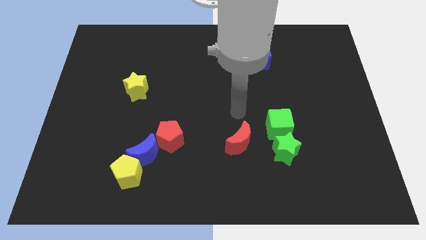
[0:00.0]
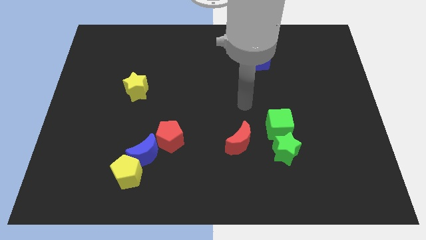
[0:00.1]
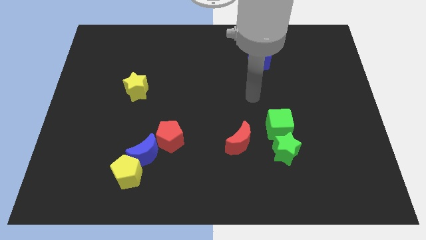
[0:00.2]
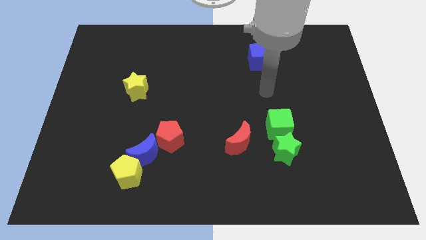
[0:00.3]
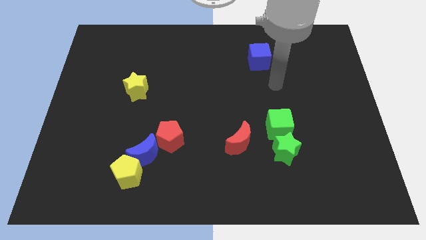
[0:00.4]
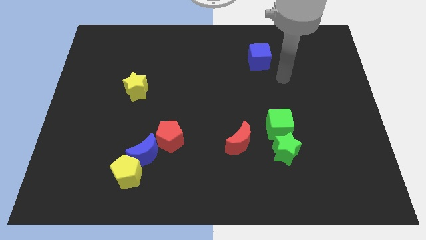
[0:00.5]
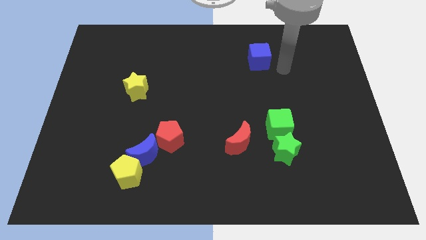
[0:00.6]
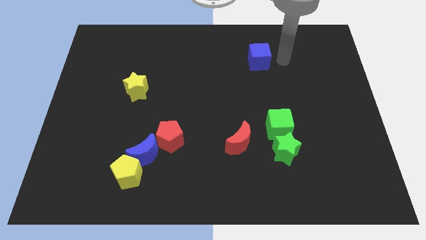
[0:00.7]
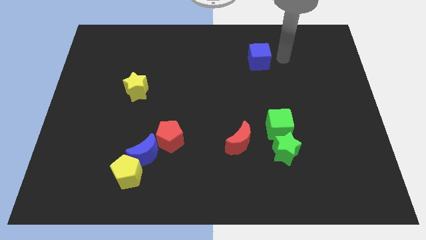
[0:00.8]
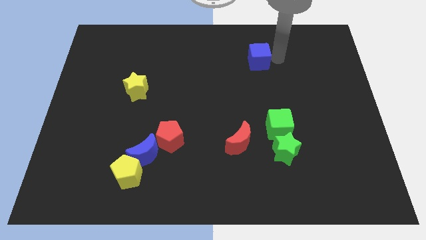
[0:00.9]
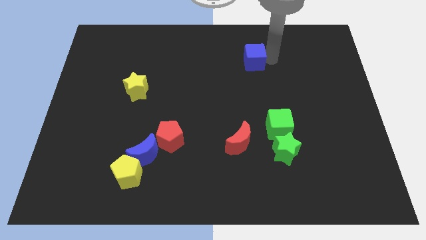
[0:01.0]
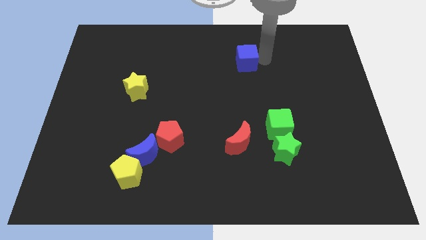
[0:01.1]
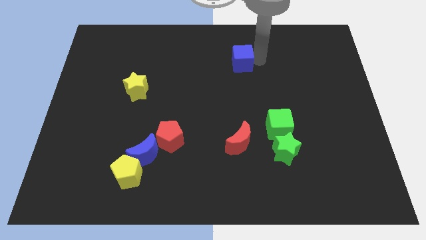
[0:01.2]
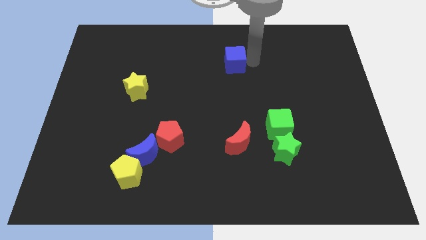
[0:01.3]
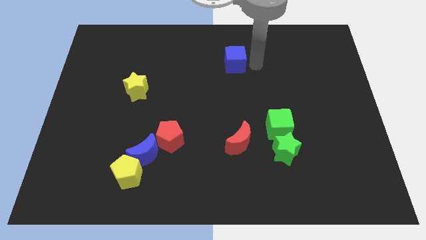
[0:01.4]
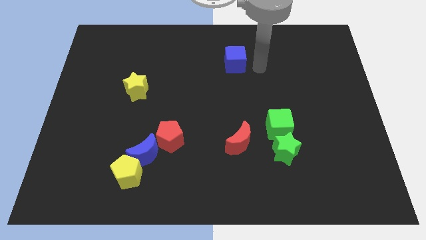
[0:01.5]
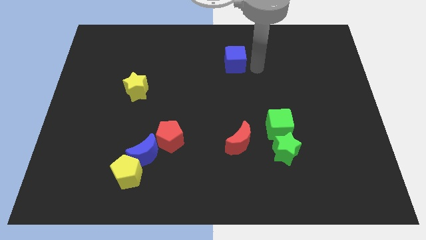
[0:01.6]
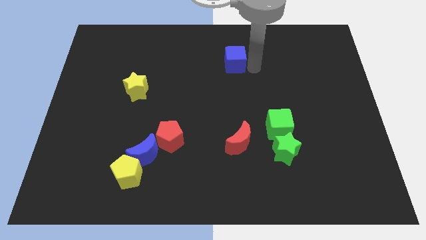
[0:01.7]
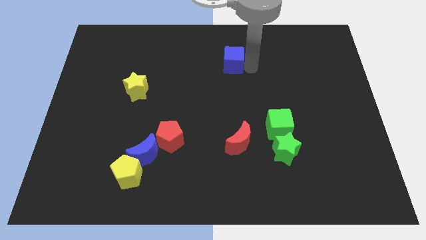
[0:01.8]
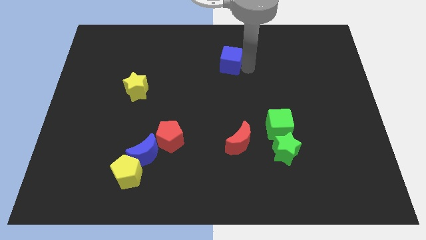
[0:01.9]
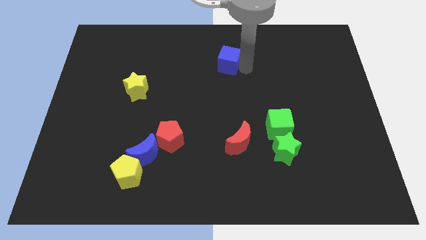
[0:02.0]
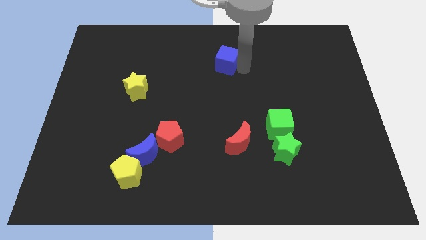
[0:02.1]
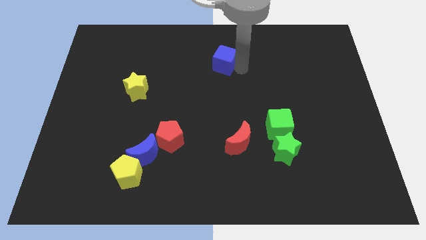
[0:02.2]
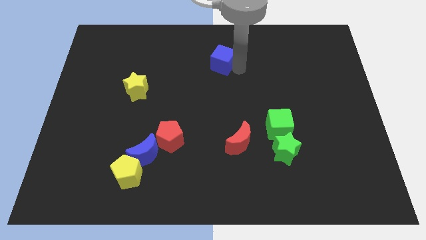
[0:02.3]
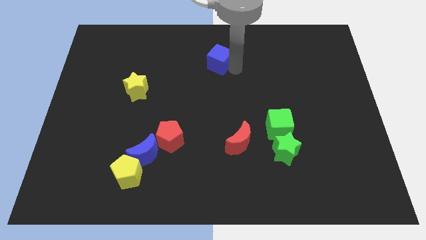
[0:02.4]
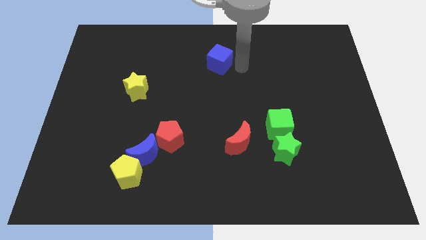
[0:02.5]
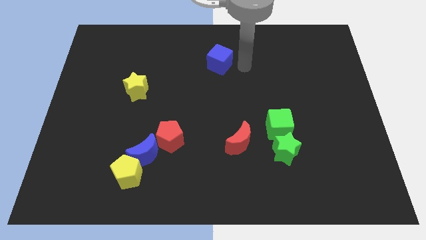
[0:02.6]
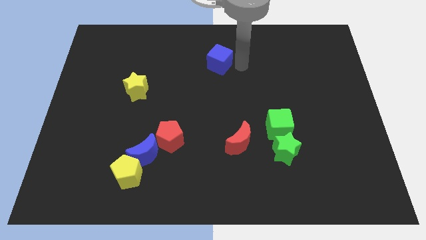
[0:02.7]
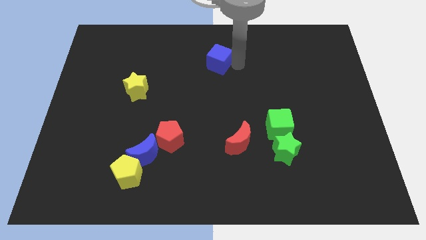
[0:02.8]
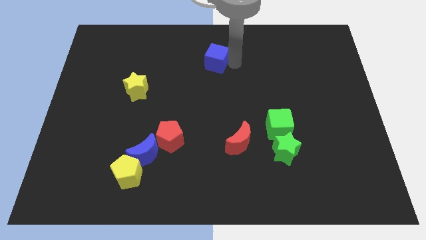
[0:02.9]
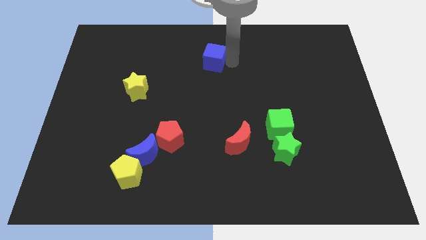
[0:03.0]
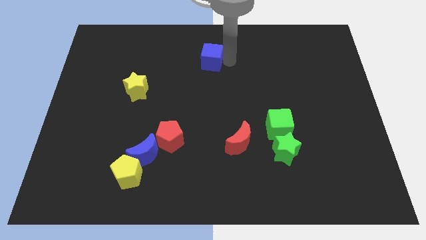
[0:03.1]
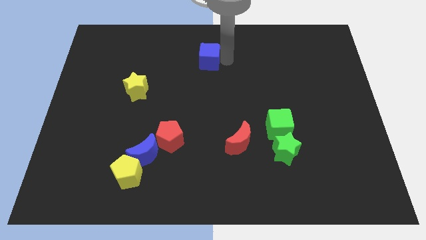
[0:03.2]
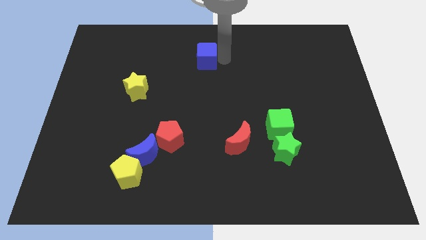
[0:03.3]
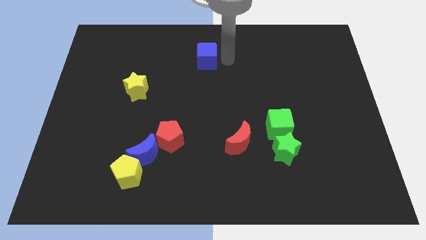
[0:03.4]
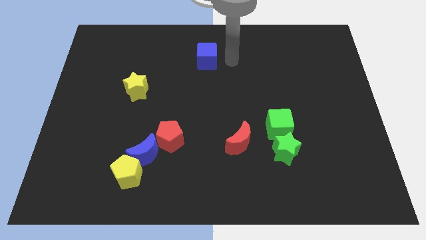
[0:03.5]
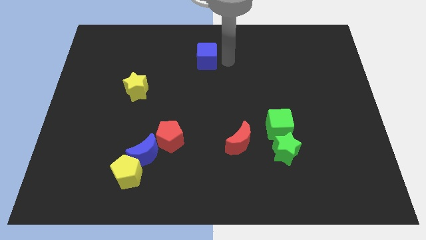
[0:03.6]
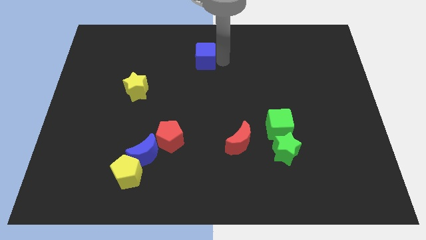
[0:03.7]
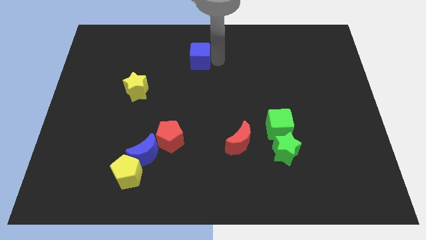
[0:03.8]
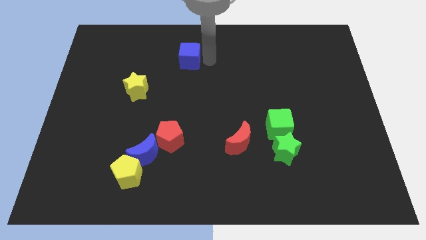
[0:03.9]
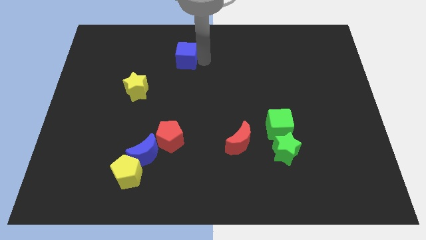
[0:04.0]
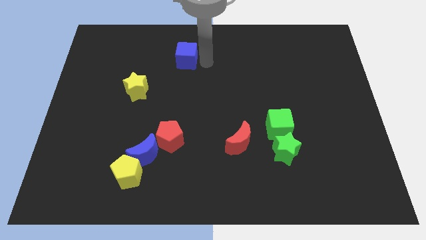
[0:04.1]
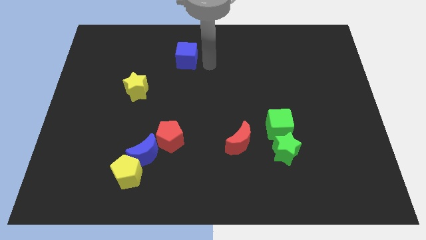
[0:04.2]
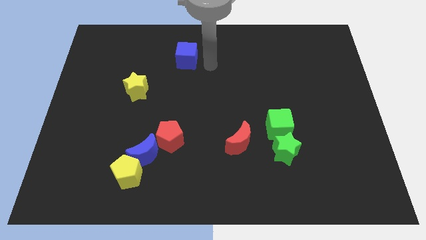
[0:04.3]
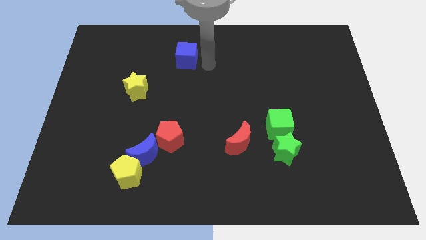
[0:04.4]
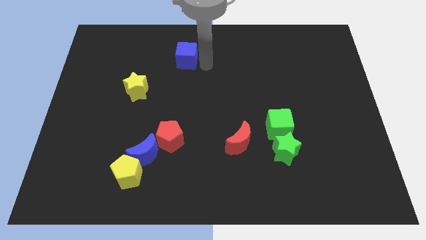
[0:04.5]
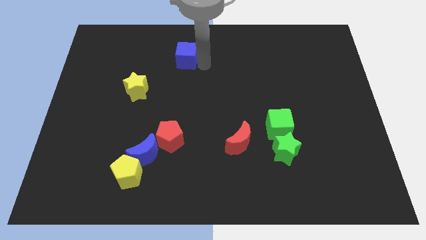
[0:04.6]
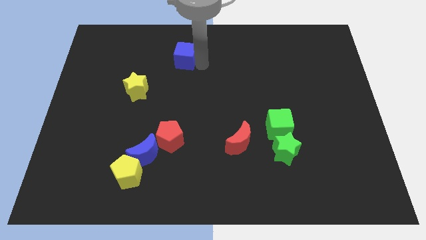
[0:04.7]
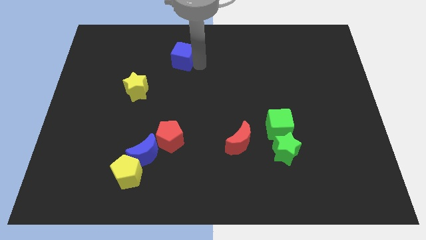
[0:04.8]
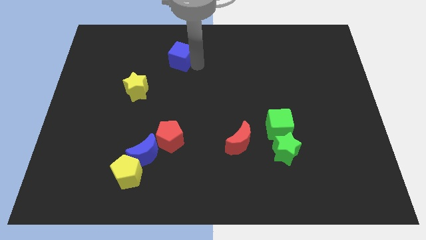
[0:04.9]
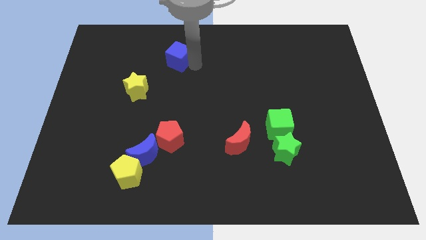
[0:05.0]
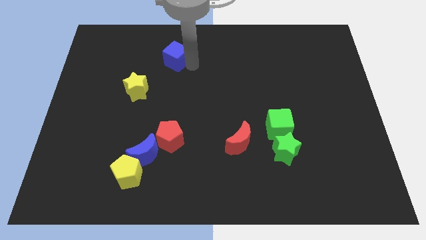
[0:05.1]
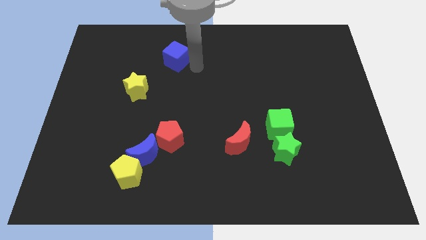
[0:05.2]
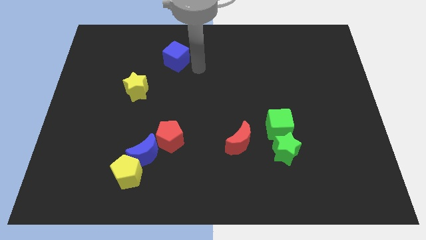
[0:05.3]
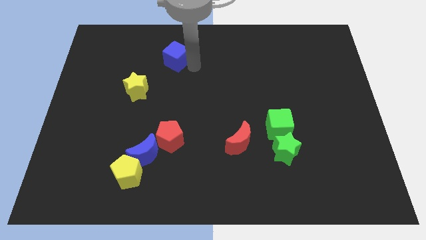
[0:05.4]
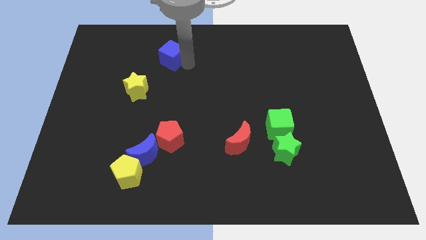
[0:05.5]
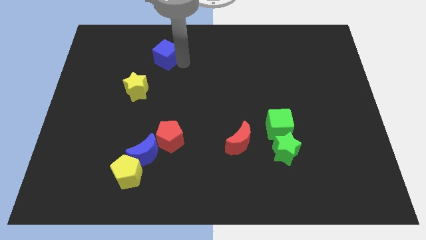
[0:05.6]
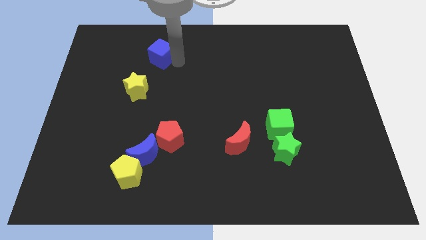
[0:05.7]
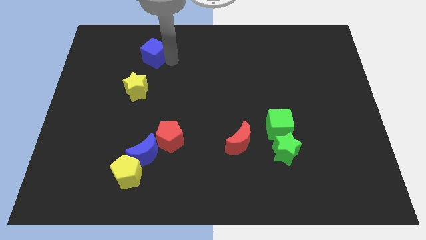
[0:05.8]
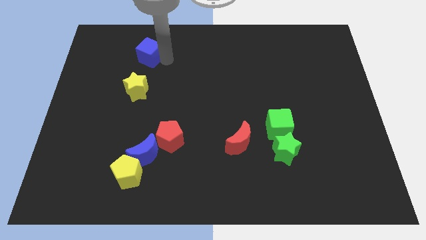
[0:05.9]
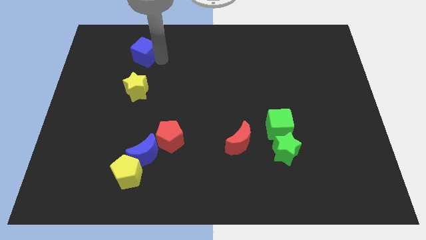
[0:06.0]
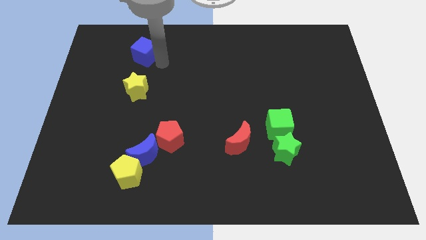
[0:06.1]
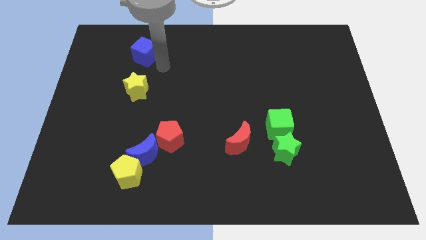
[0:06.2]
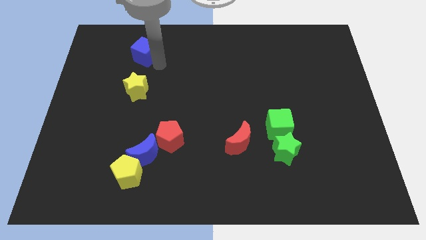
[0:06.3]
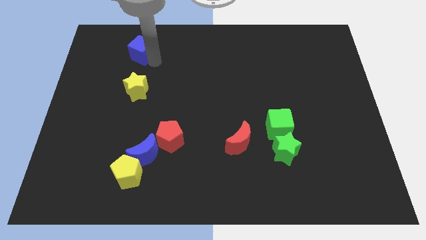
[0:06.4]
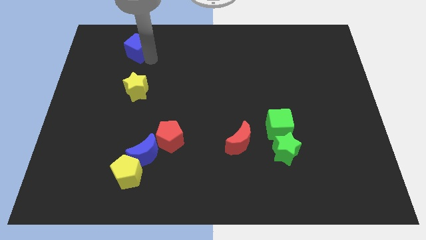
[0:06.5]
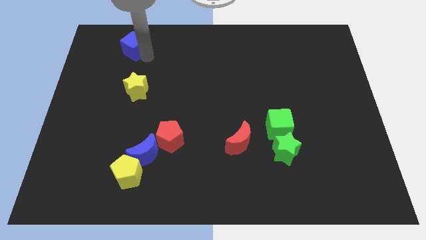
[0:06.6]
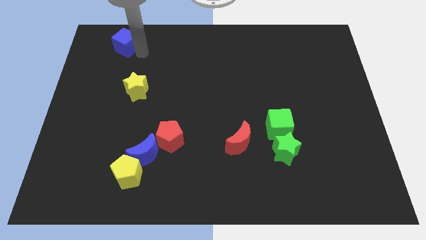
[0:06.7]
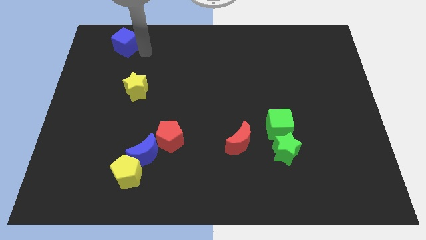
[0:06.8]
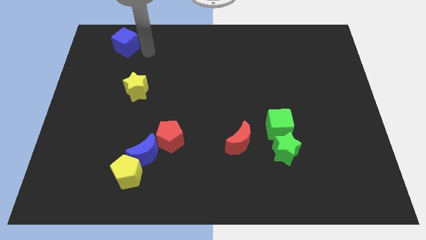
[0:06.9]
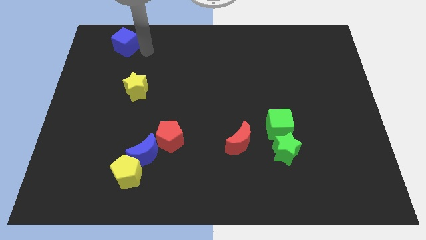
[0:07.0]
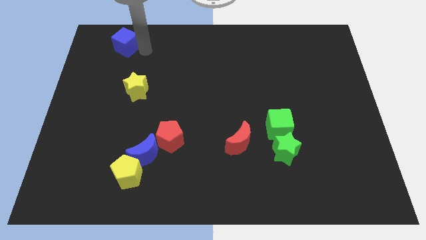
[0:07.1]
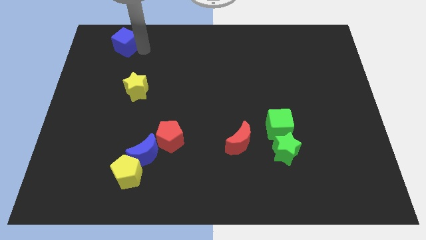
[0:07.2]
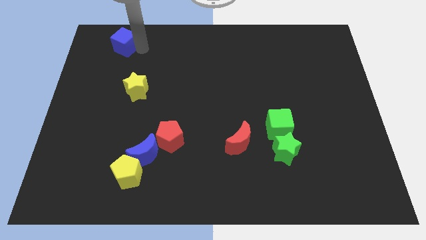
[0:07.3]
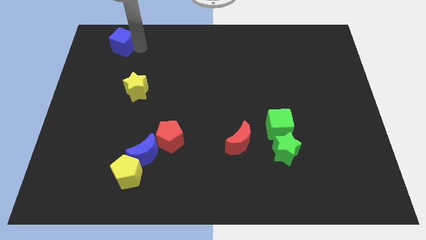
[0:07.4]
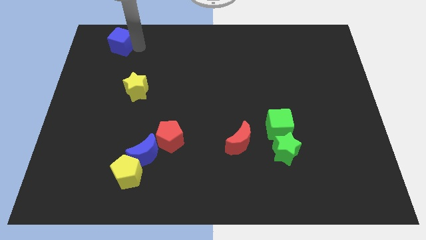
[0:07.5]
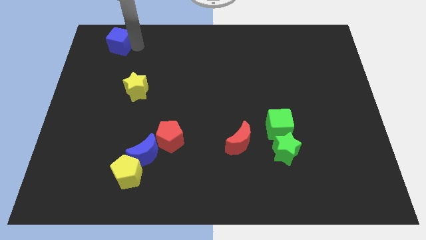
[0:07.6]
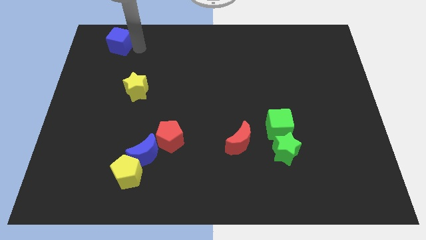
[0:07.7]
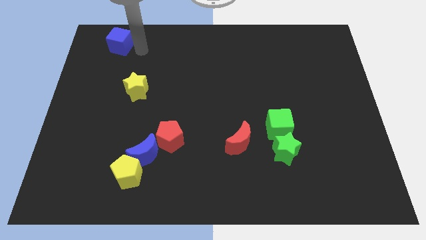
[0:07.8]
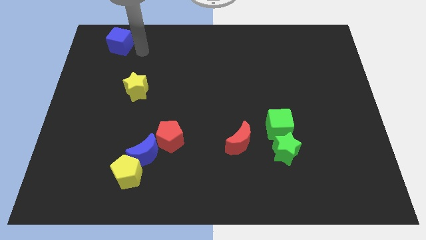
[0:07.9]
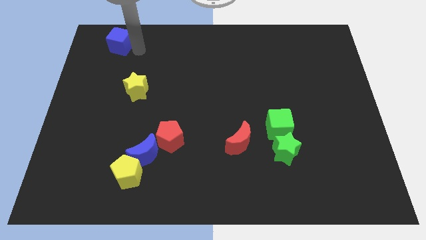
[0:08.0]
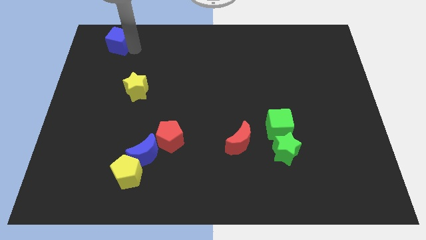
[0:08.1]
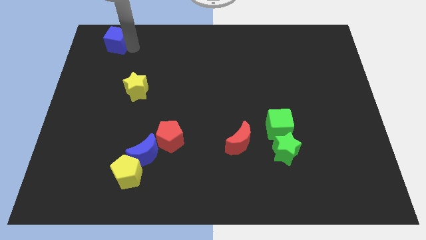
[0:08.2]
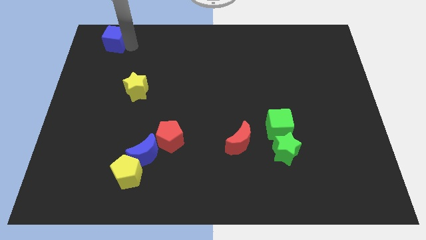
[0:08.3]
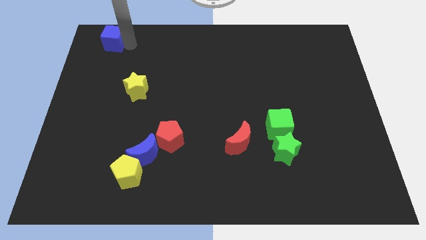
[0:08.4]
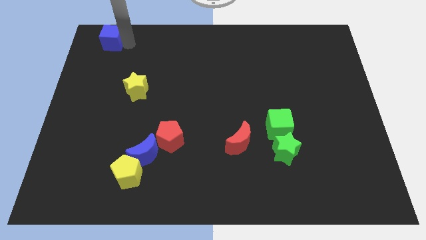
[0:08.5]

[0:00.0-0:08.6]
slide the blue cube to the top left
